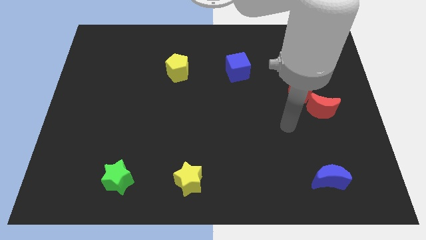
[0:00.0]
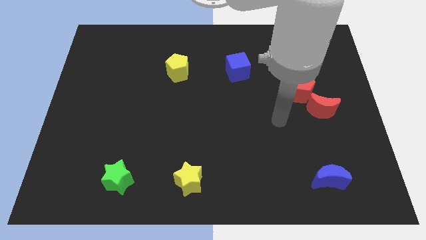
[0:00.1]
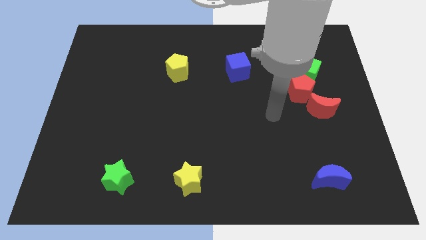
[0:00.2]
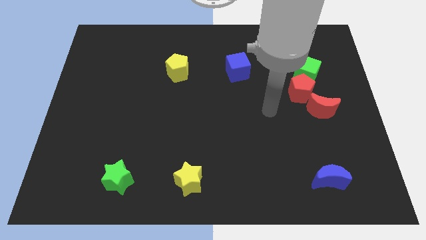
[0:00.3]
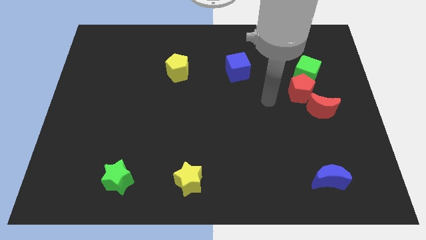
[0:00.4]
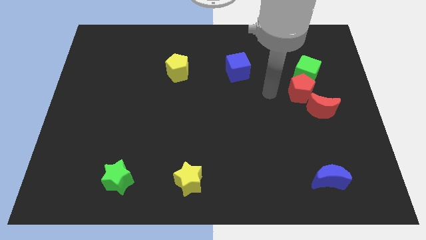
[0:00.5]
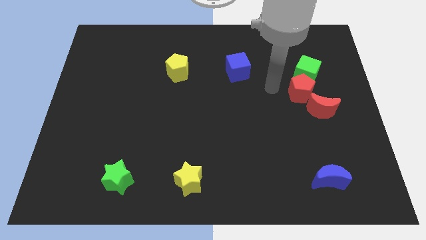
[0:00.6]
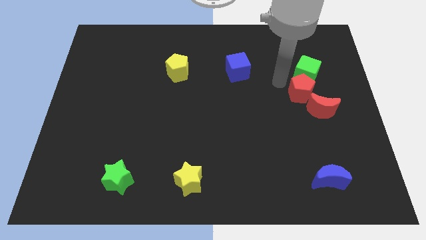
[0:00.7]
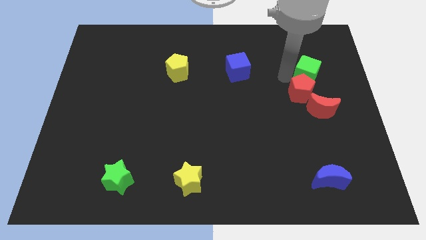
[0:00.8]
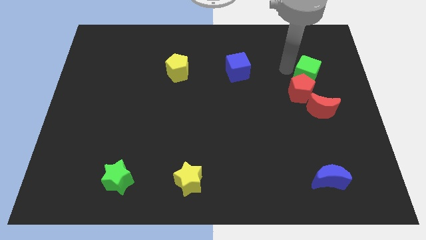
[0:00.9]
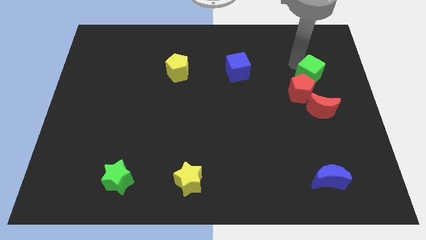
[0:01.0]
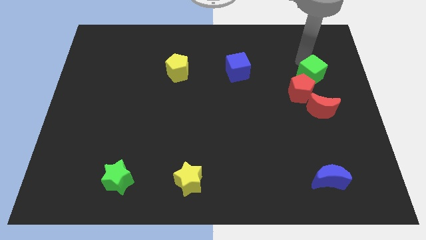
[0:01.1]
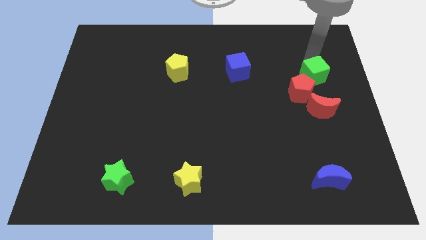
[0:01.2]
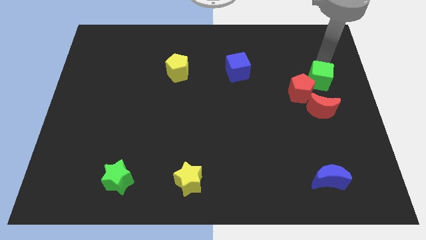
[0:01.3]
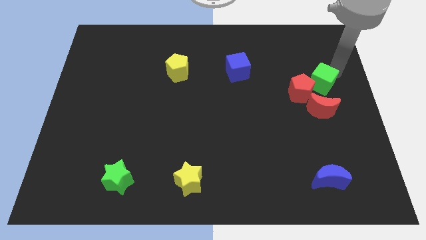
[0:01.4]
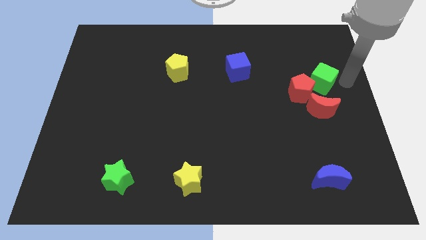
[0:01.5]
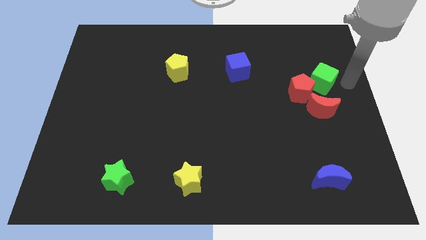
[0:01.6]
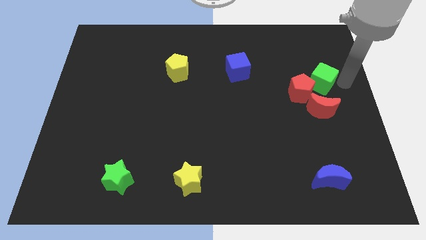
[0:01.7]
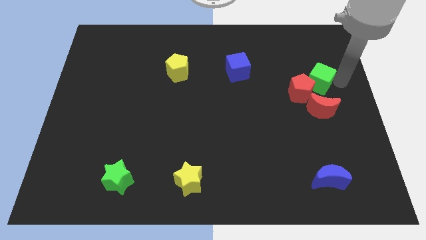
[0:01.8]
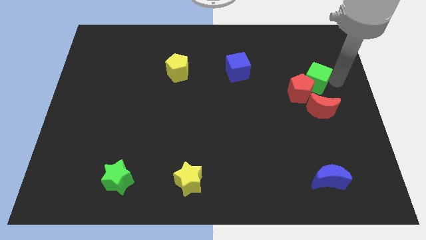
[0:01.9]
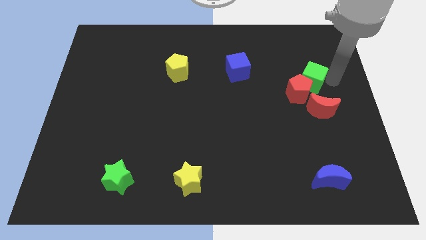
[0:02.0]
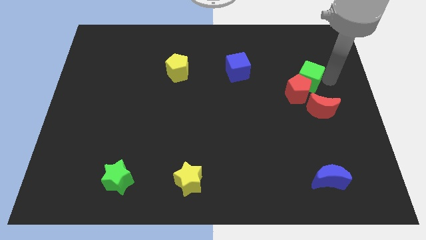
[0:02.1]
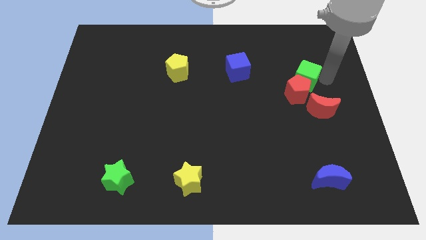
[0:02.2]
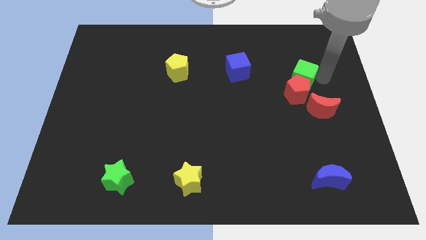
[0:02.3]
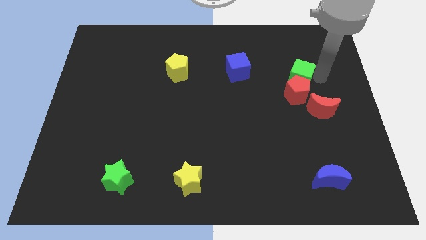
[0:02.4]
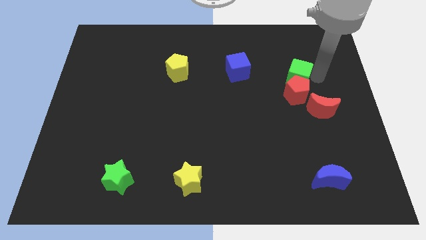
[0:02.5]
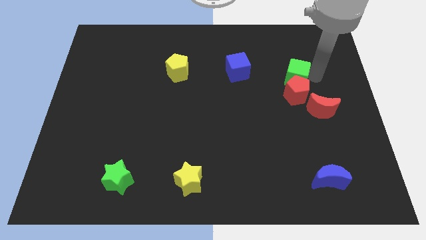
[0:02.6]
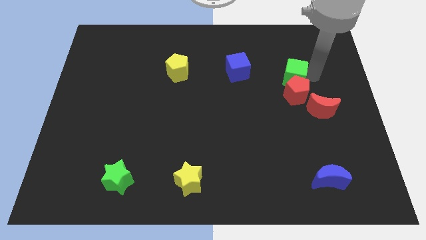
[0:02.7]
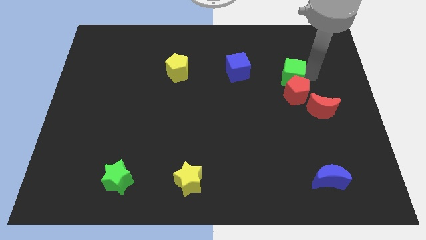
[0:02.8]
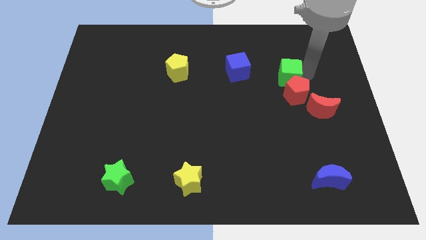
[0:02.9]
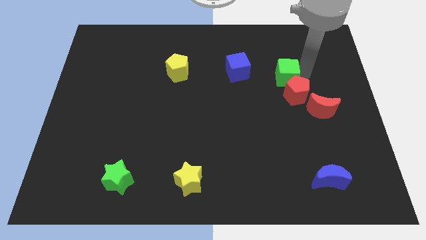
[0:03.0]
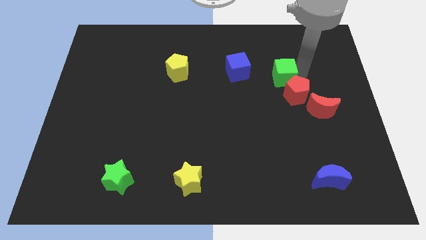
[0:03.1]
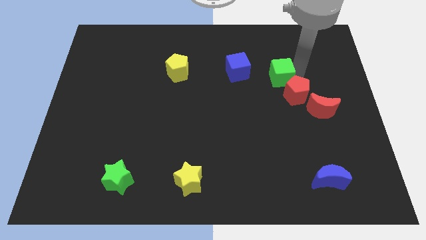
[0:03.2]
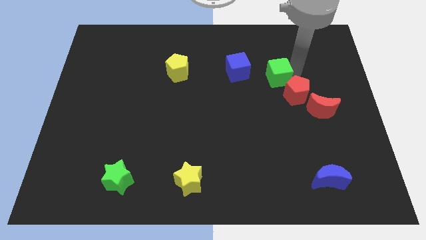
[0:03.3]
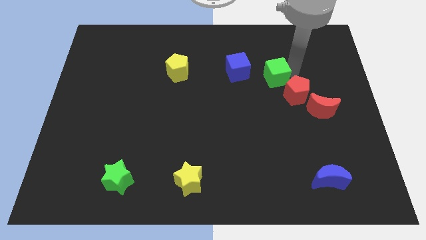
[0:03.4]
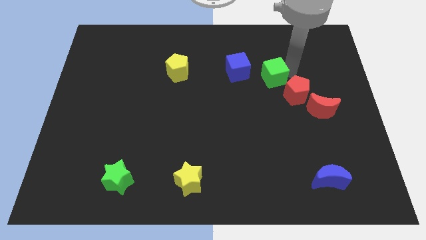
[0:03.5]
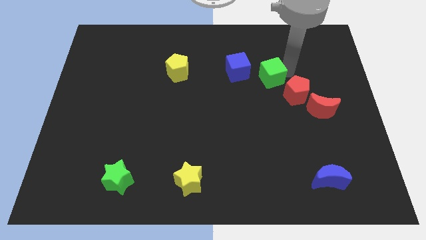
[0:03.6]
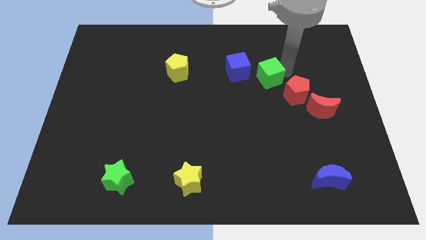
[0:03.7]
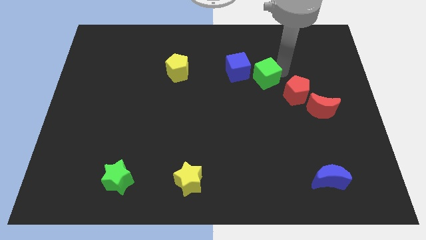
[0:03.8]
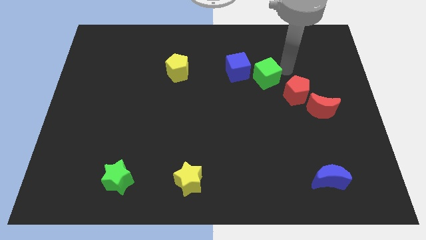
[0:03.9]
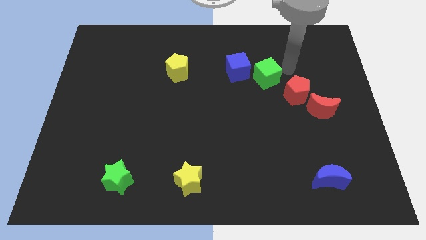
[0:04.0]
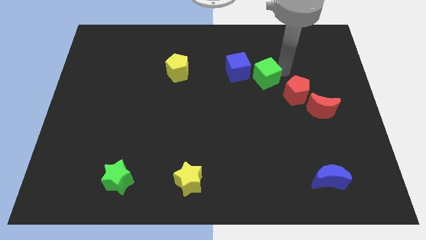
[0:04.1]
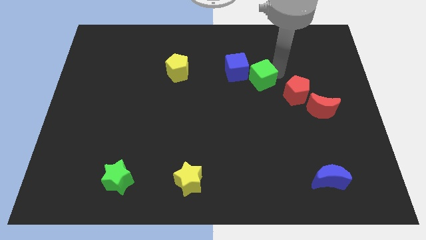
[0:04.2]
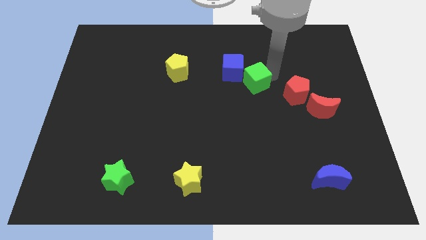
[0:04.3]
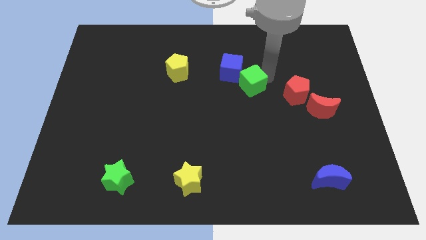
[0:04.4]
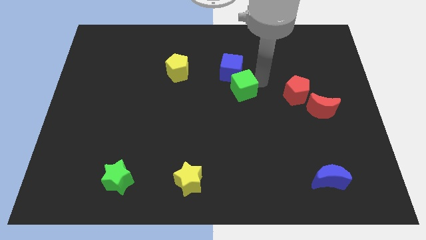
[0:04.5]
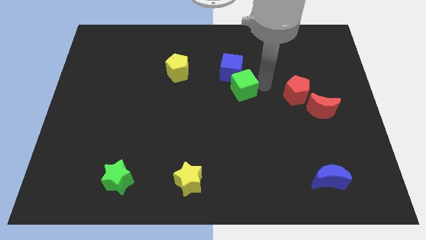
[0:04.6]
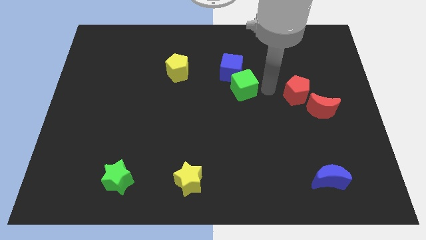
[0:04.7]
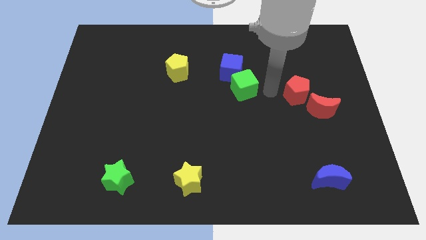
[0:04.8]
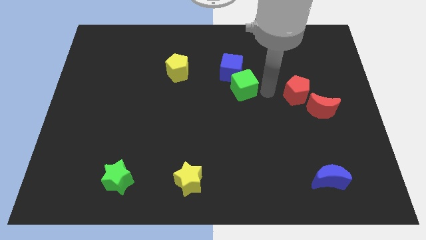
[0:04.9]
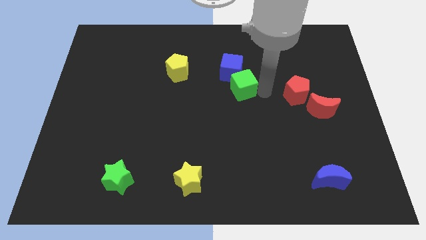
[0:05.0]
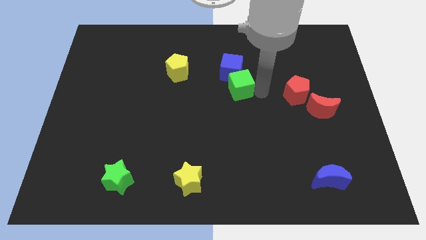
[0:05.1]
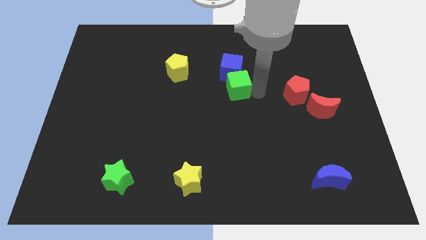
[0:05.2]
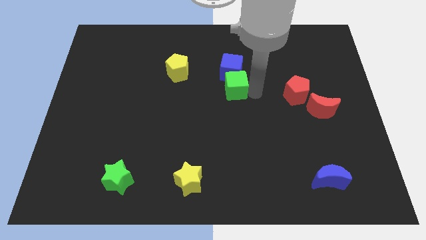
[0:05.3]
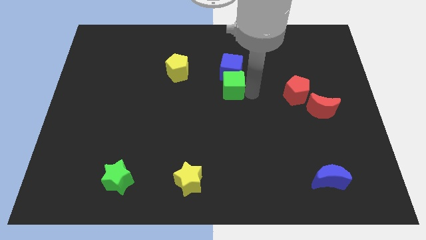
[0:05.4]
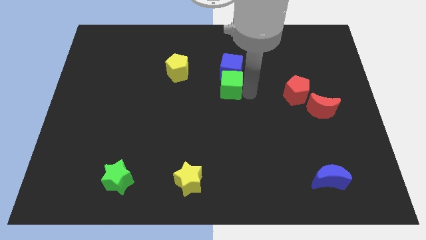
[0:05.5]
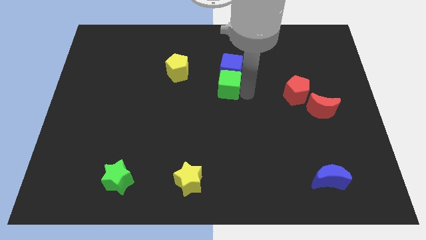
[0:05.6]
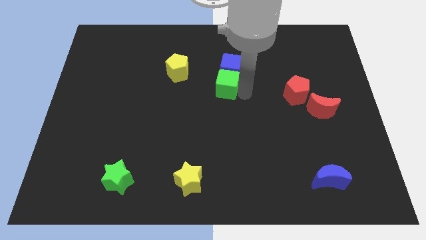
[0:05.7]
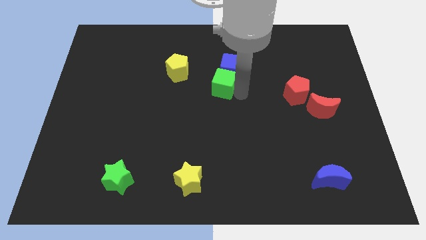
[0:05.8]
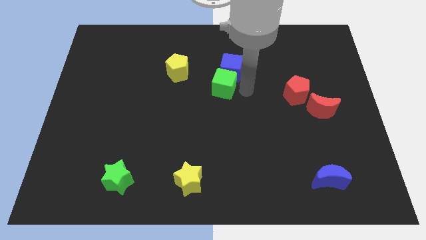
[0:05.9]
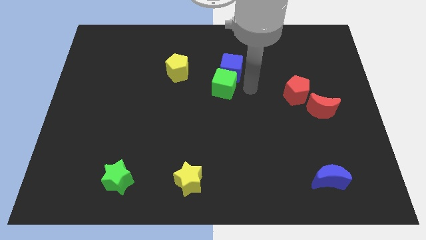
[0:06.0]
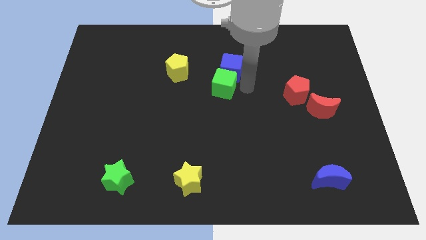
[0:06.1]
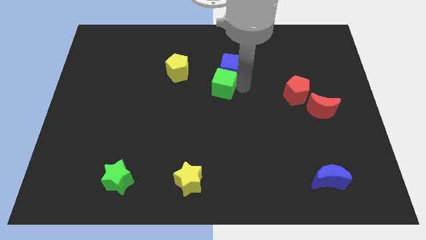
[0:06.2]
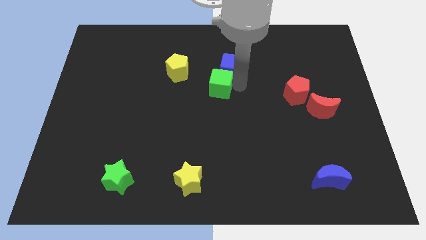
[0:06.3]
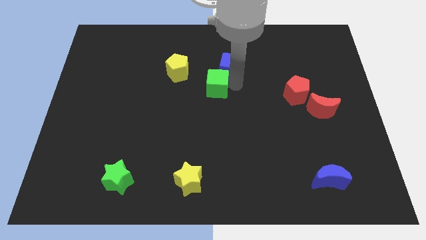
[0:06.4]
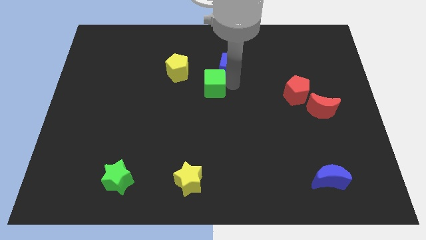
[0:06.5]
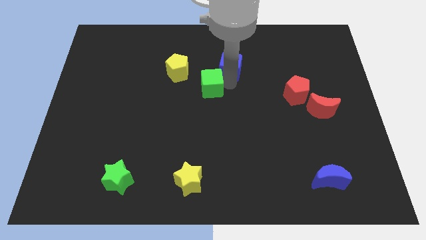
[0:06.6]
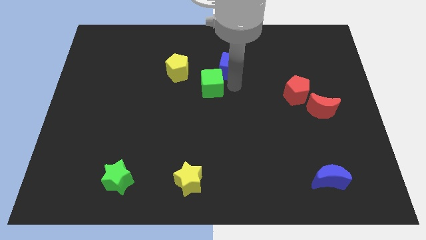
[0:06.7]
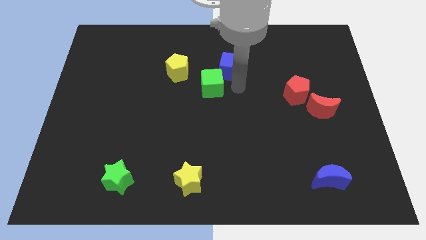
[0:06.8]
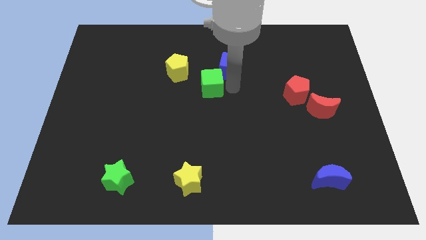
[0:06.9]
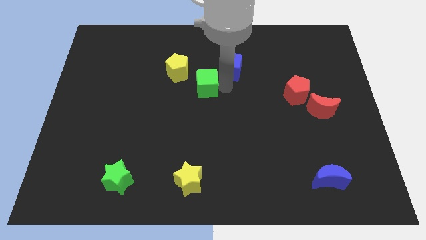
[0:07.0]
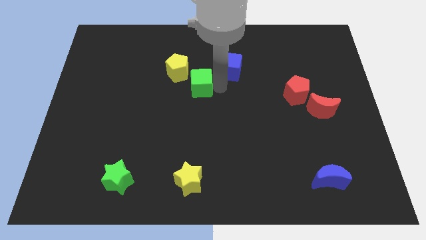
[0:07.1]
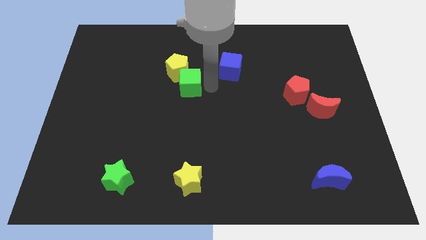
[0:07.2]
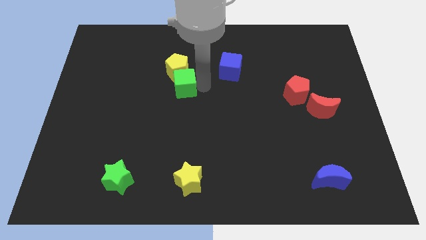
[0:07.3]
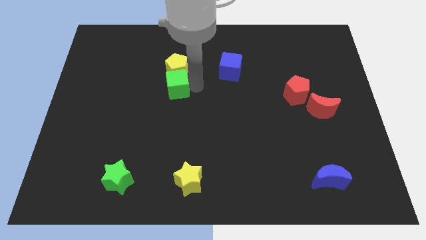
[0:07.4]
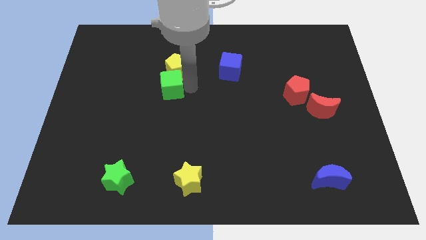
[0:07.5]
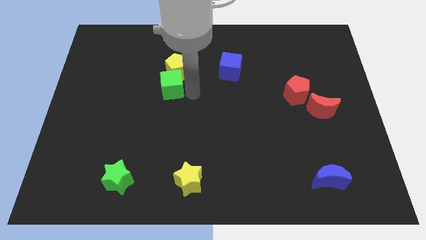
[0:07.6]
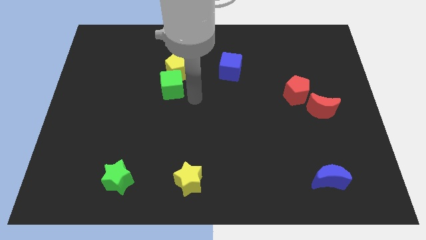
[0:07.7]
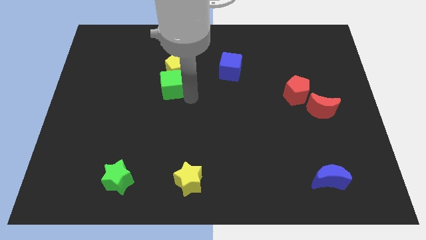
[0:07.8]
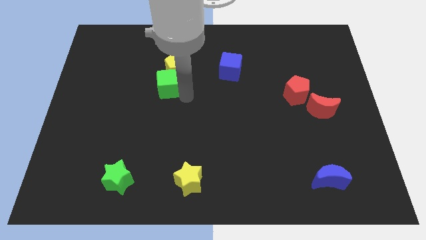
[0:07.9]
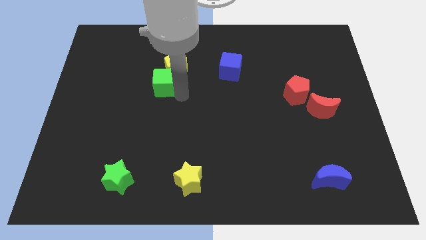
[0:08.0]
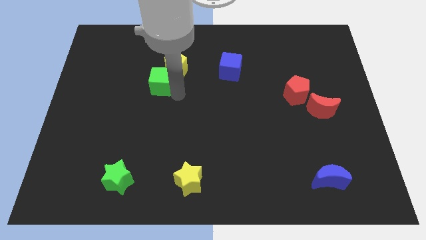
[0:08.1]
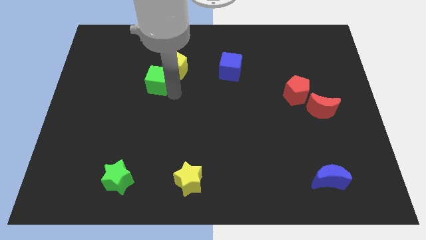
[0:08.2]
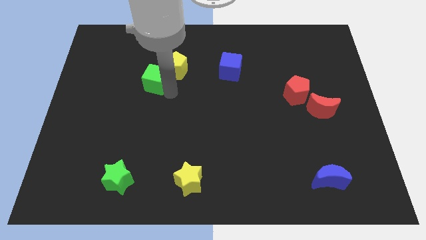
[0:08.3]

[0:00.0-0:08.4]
move the green cube left of the yellow pentagon
